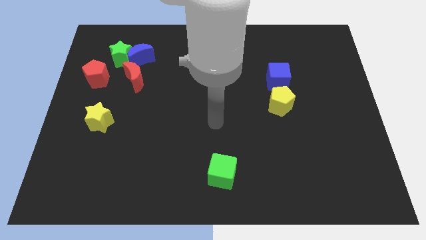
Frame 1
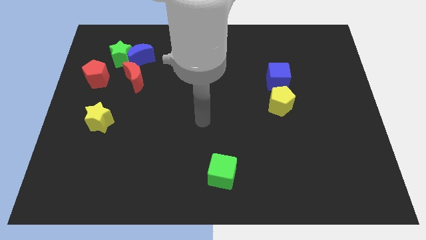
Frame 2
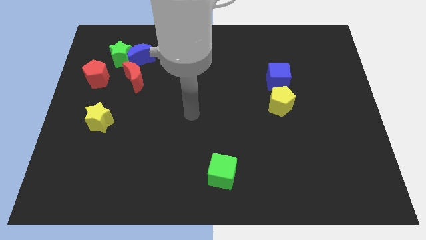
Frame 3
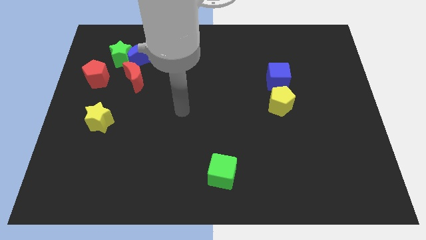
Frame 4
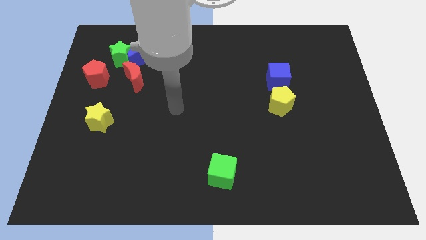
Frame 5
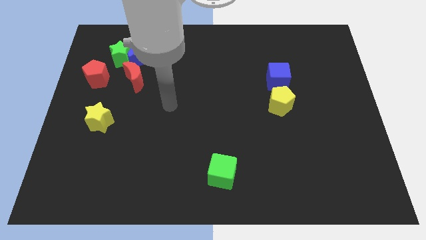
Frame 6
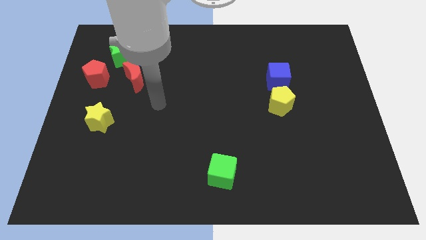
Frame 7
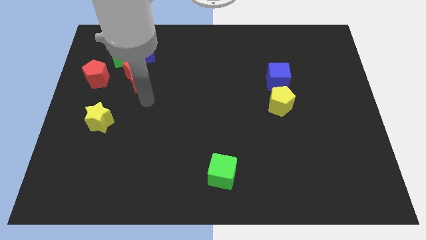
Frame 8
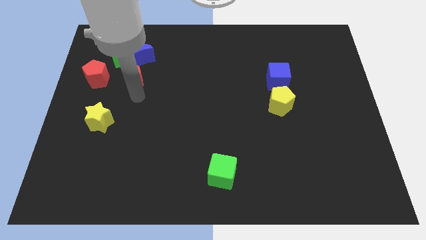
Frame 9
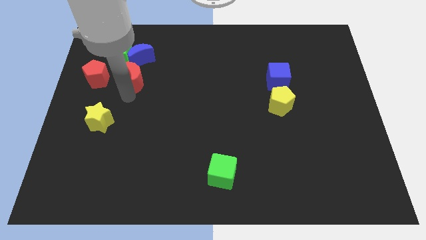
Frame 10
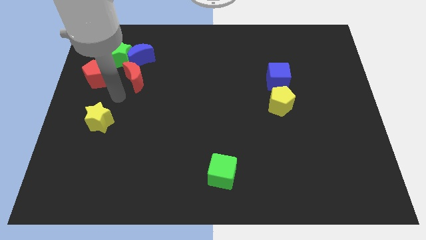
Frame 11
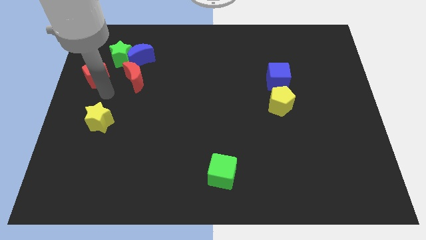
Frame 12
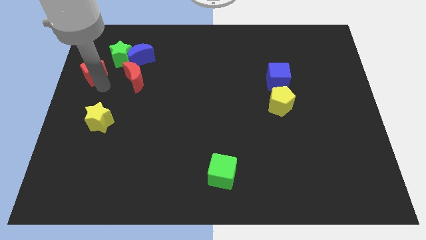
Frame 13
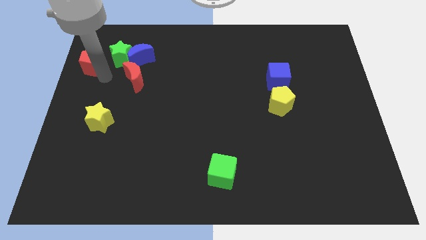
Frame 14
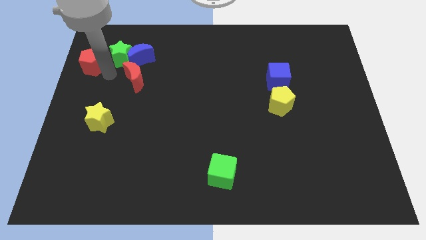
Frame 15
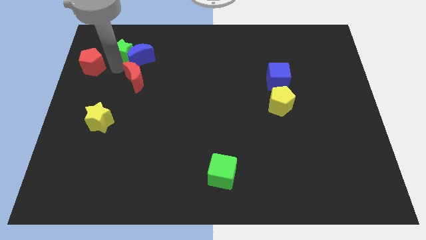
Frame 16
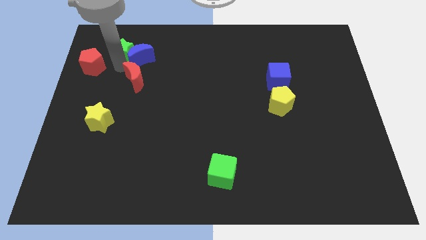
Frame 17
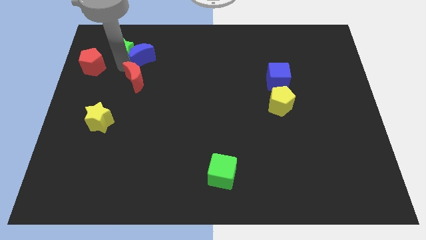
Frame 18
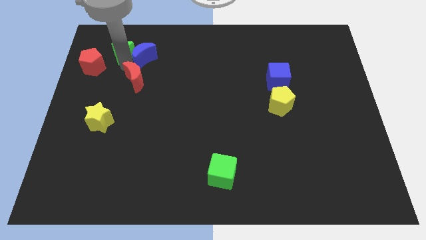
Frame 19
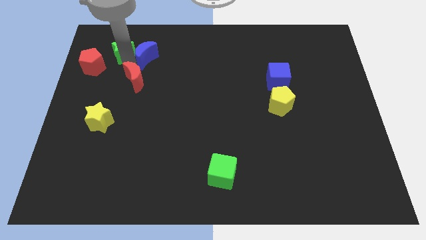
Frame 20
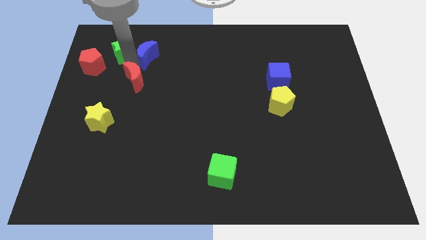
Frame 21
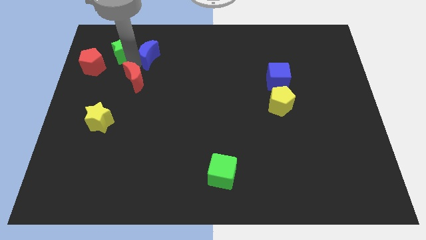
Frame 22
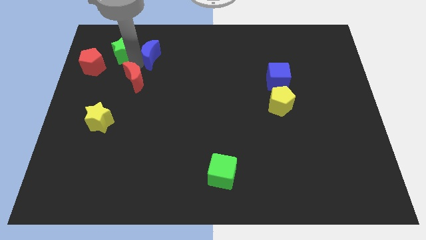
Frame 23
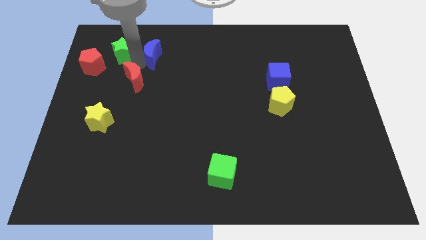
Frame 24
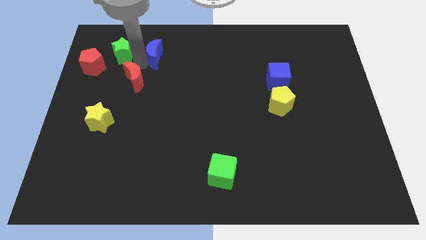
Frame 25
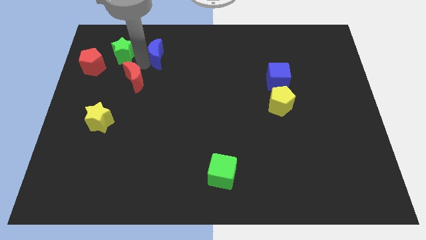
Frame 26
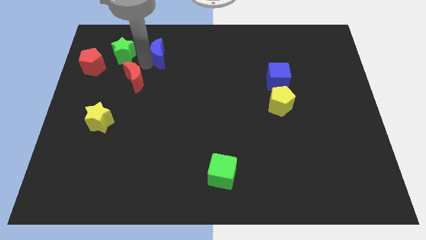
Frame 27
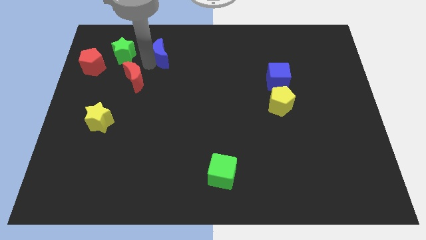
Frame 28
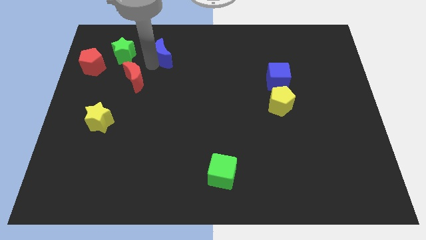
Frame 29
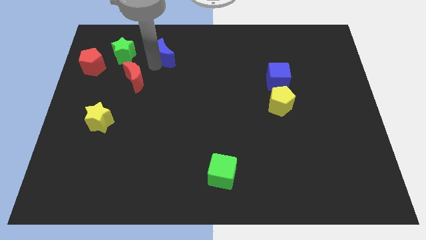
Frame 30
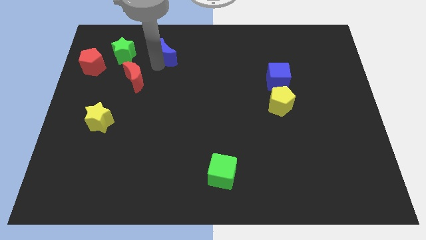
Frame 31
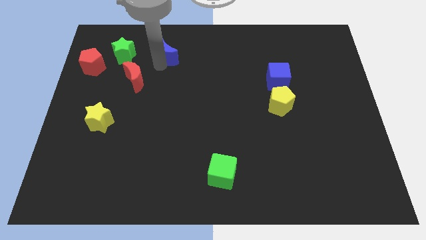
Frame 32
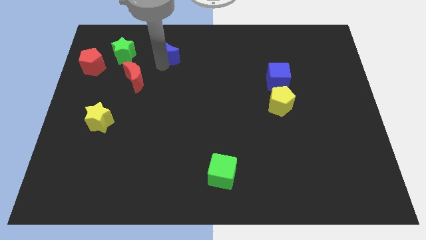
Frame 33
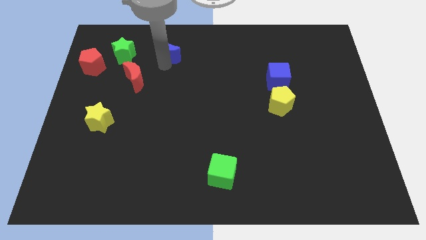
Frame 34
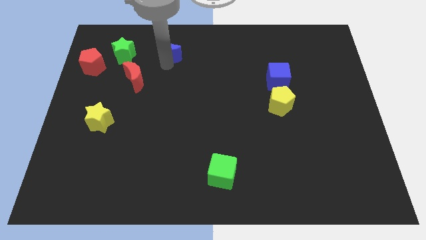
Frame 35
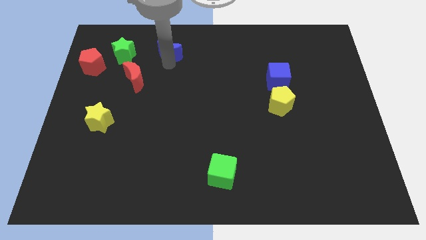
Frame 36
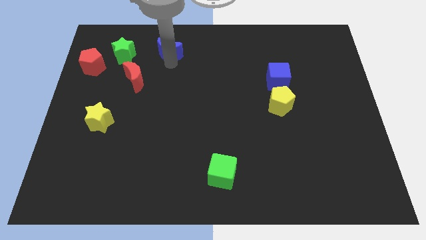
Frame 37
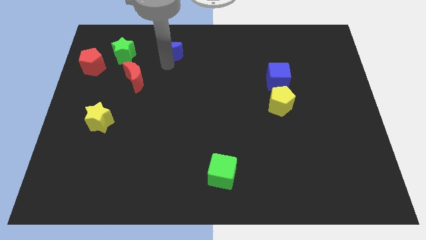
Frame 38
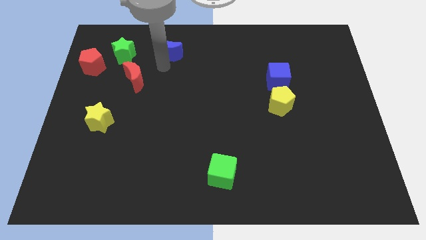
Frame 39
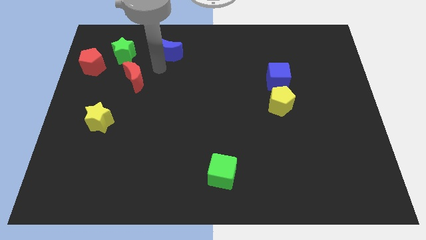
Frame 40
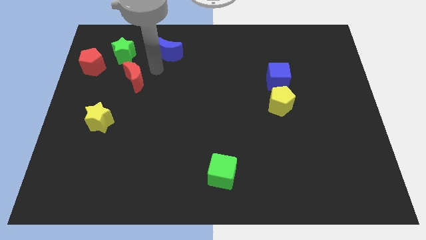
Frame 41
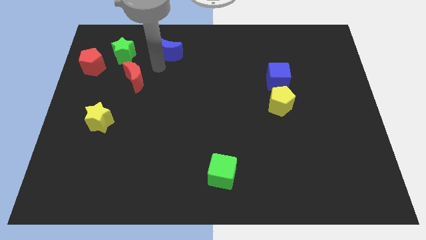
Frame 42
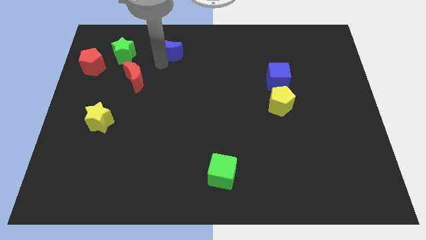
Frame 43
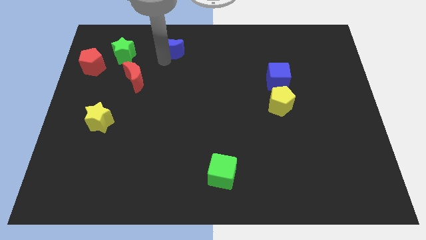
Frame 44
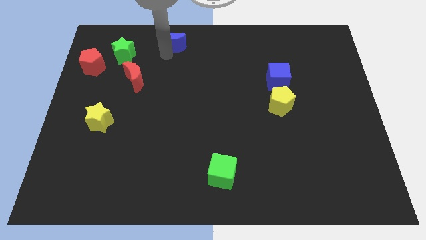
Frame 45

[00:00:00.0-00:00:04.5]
slide the blue moon to the top side

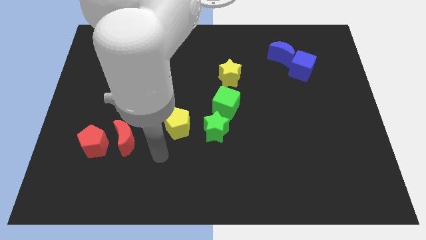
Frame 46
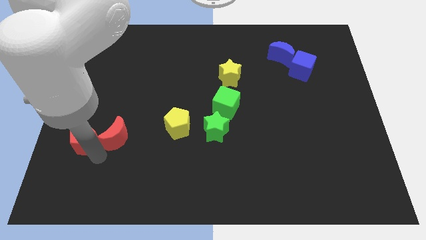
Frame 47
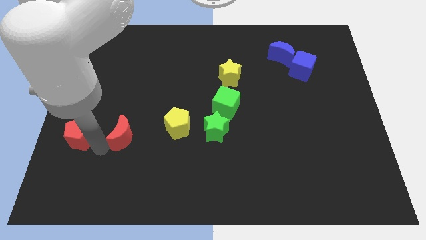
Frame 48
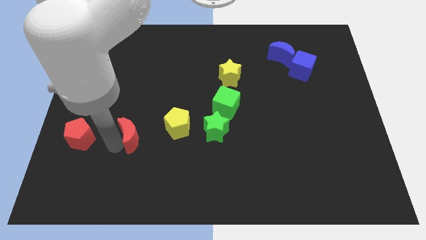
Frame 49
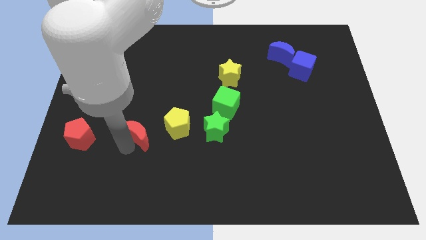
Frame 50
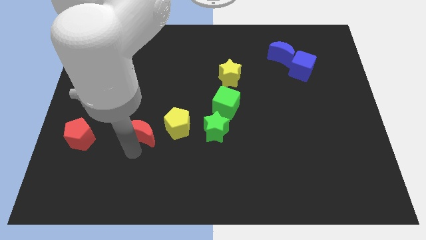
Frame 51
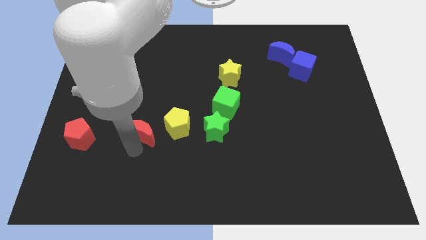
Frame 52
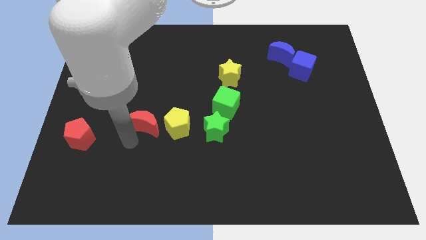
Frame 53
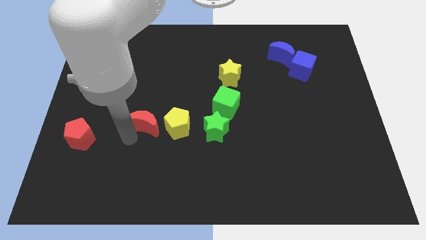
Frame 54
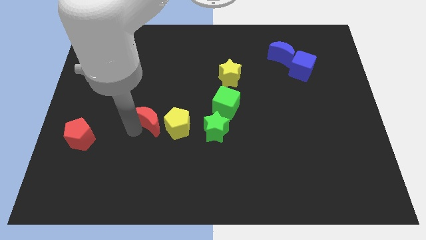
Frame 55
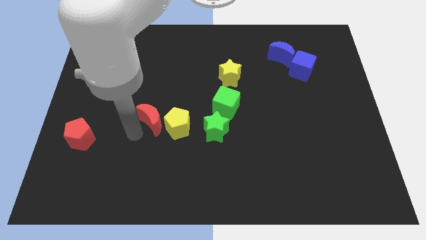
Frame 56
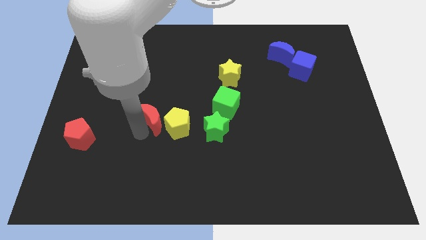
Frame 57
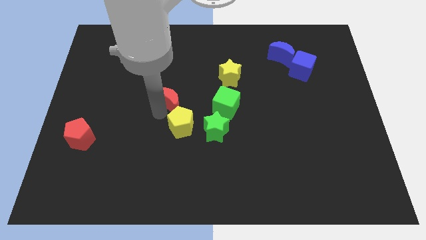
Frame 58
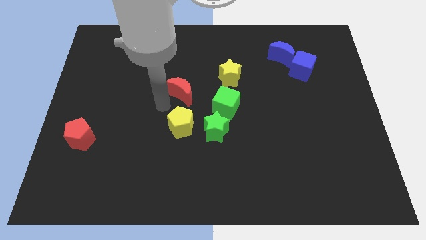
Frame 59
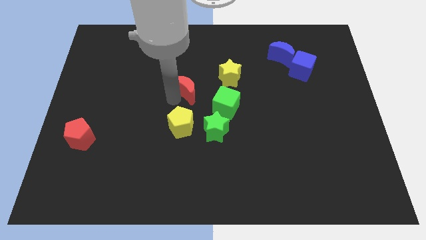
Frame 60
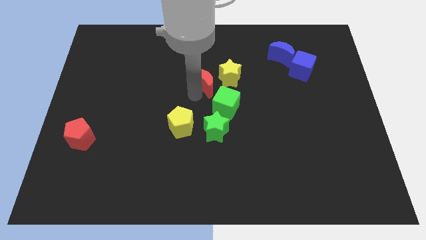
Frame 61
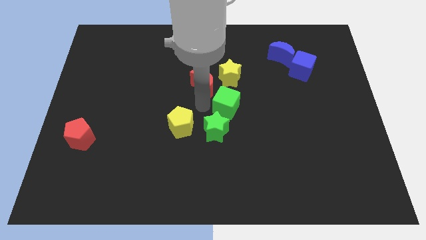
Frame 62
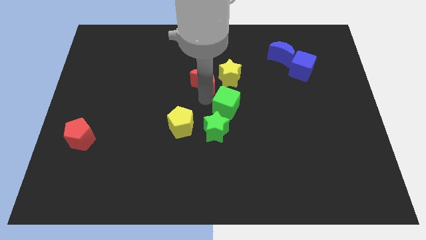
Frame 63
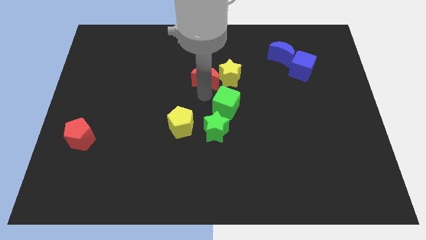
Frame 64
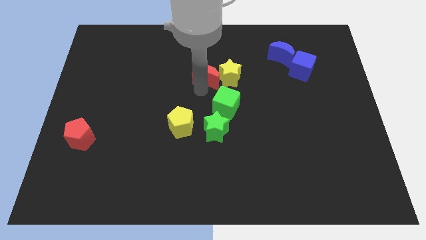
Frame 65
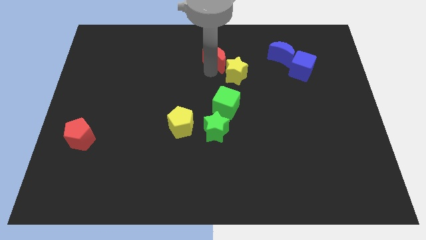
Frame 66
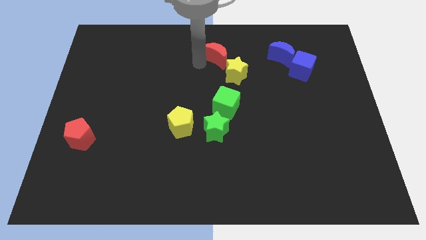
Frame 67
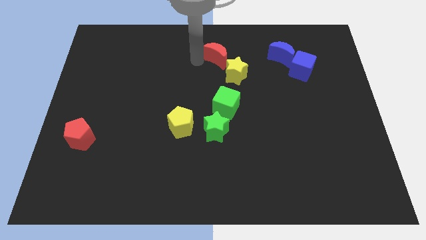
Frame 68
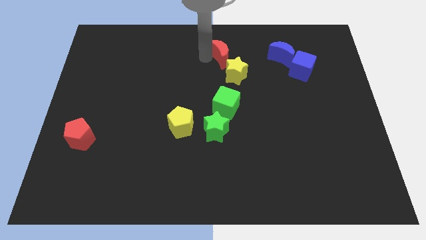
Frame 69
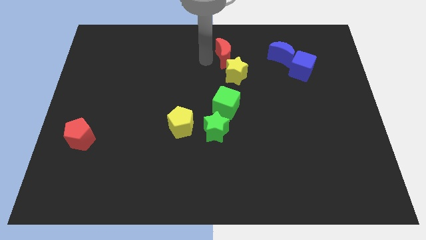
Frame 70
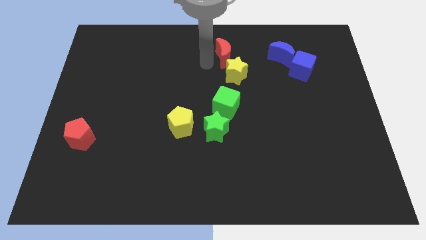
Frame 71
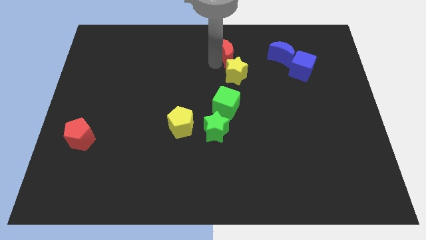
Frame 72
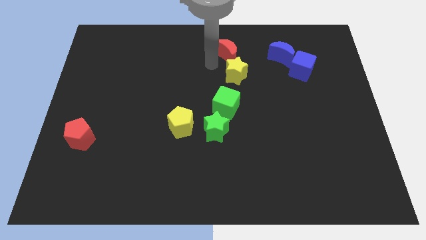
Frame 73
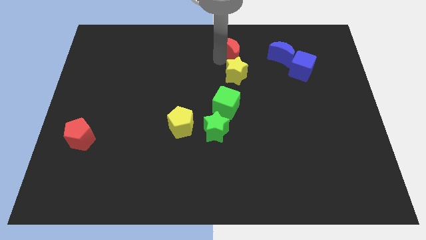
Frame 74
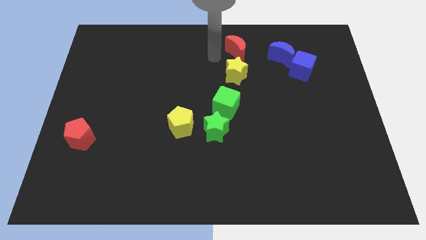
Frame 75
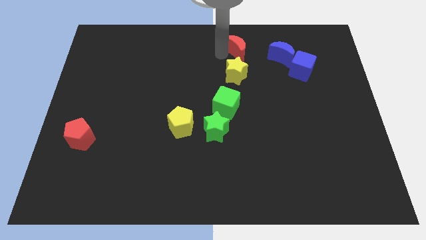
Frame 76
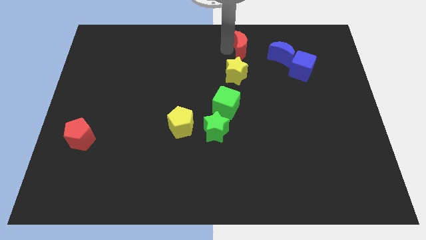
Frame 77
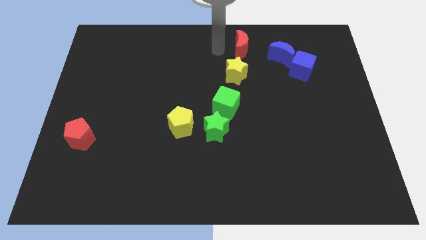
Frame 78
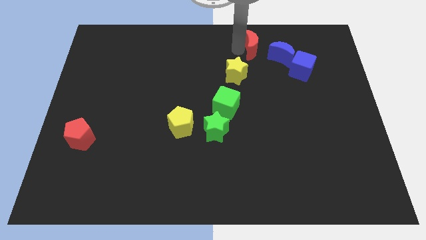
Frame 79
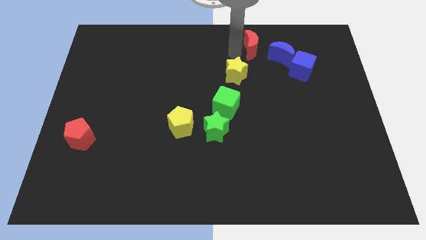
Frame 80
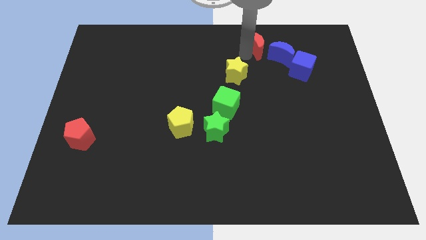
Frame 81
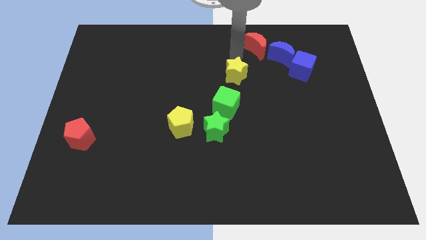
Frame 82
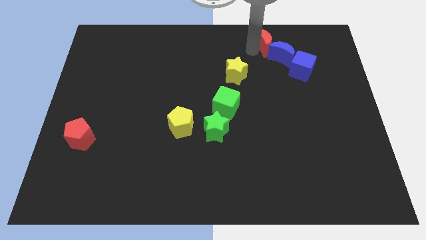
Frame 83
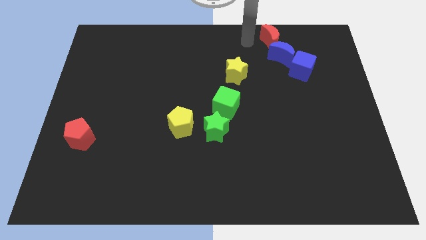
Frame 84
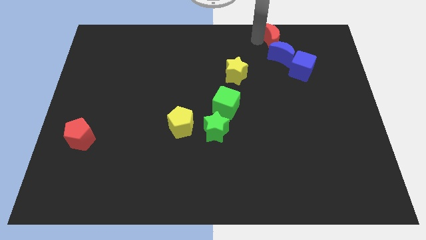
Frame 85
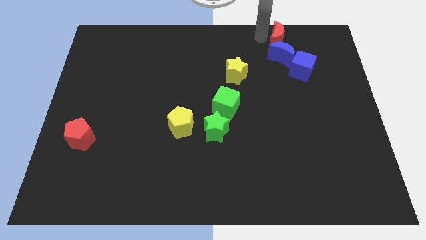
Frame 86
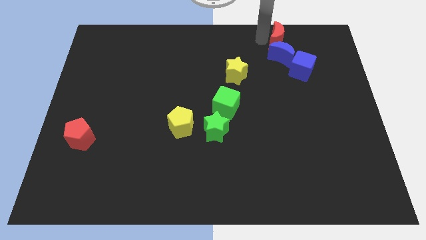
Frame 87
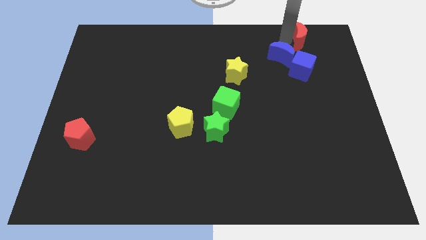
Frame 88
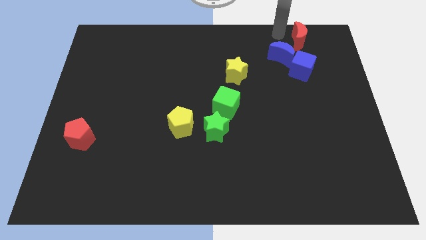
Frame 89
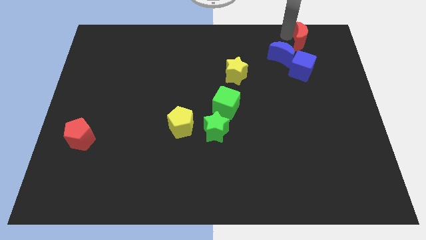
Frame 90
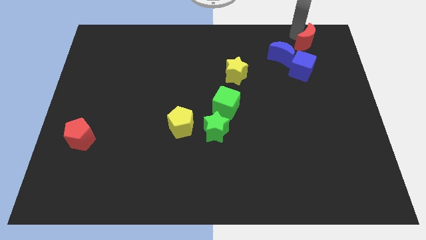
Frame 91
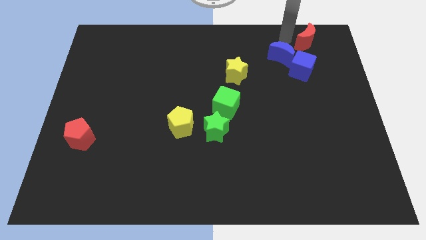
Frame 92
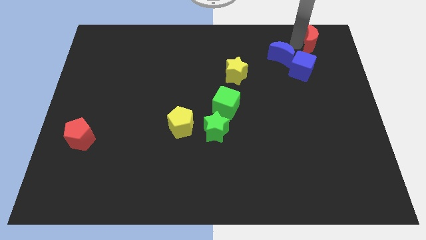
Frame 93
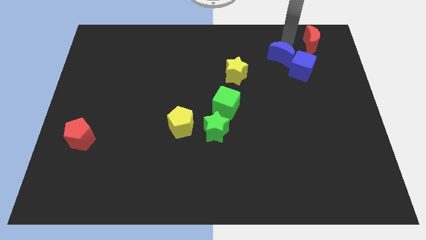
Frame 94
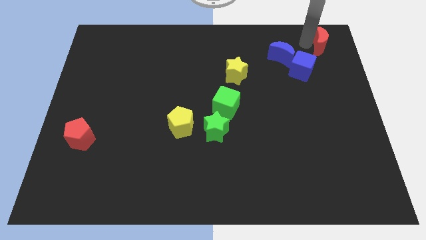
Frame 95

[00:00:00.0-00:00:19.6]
move the red moon to the top right corner
